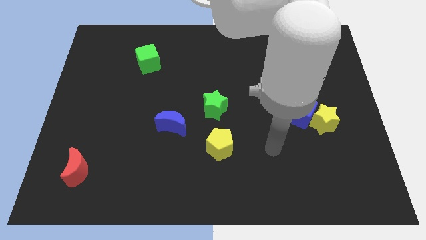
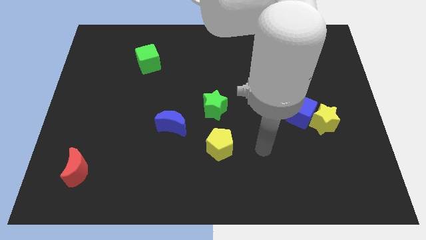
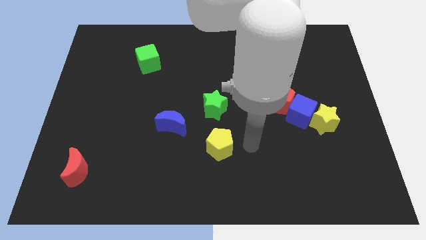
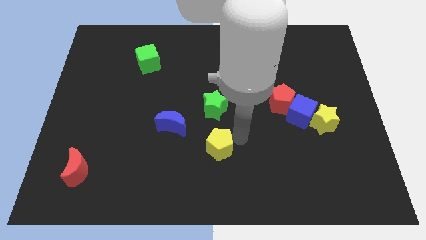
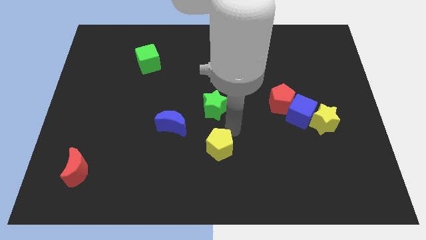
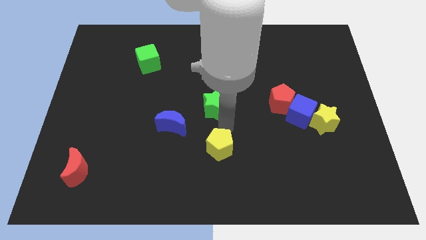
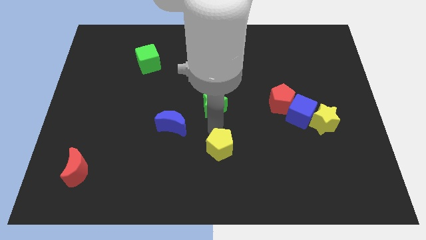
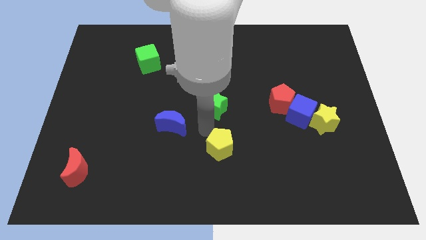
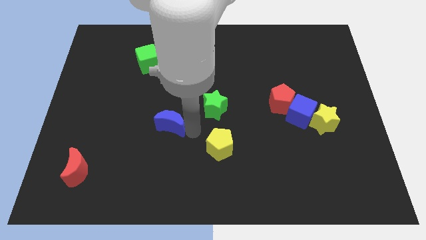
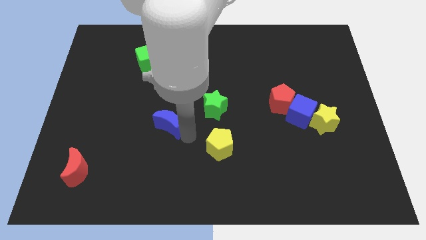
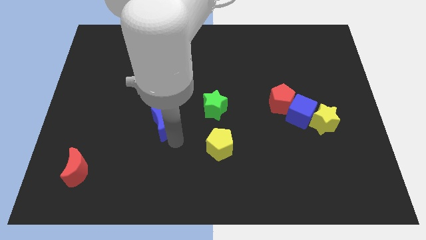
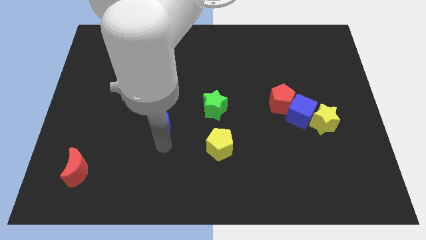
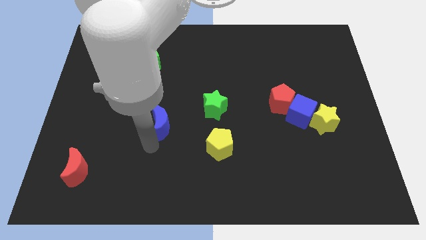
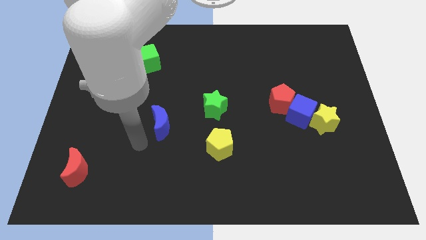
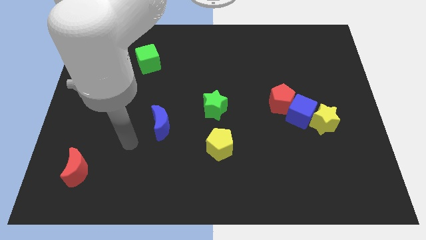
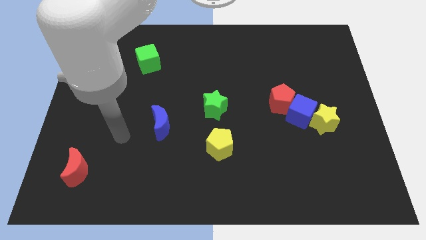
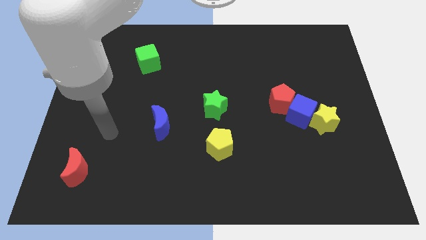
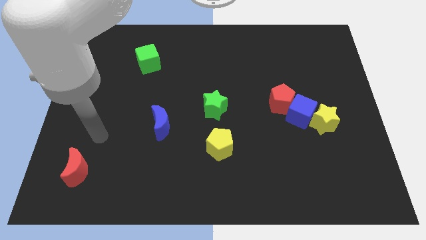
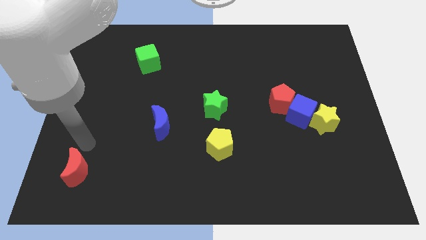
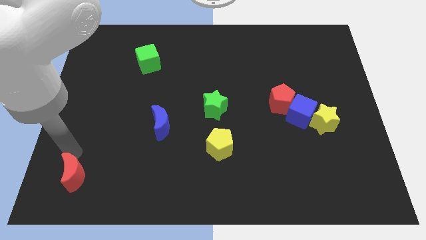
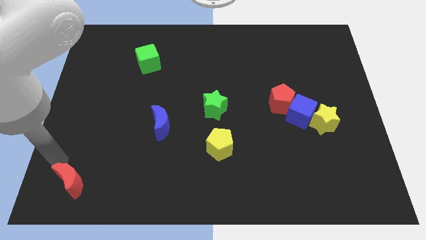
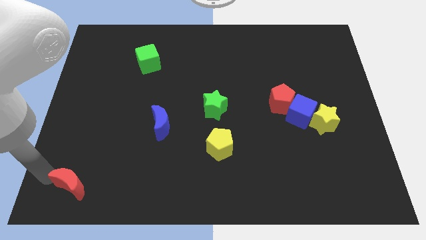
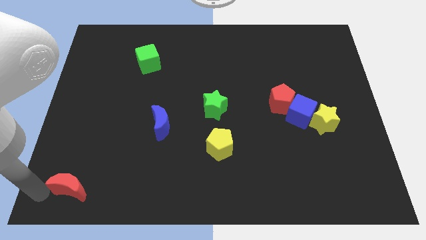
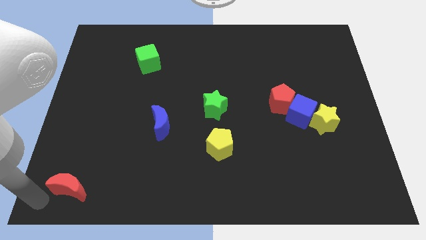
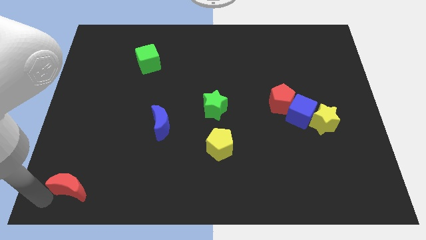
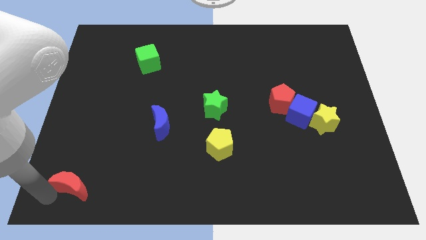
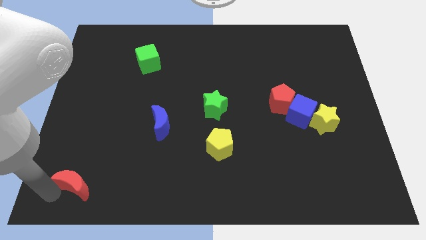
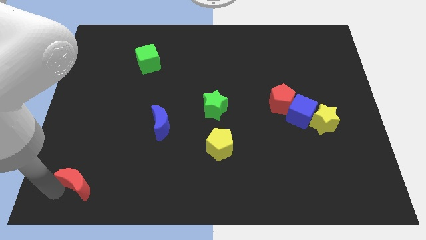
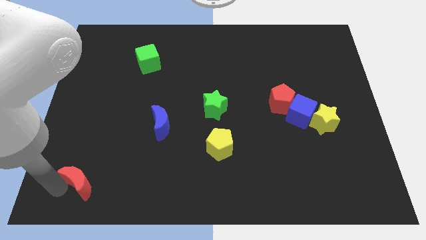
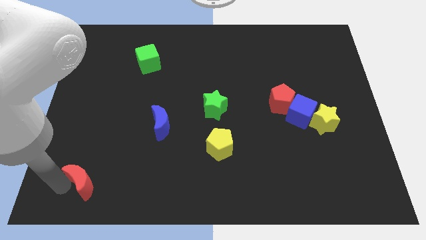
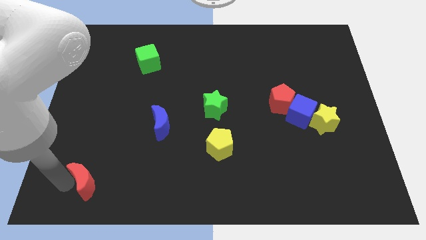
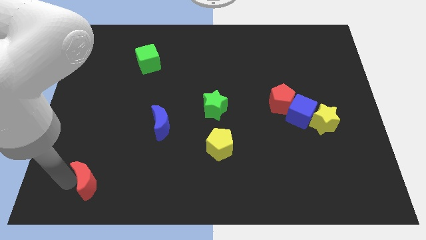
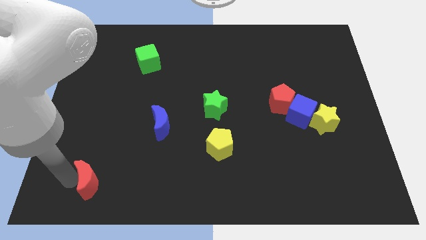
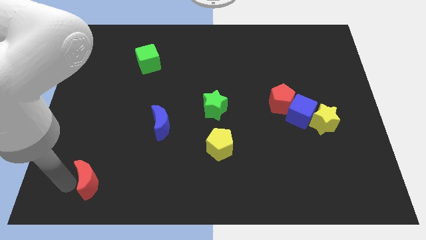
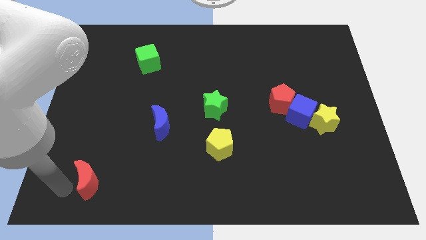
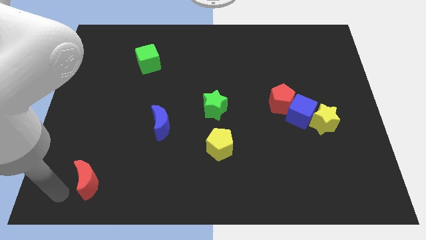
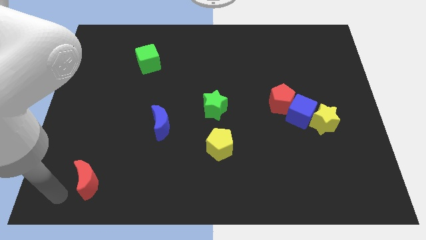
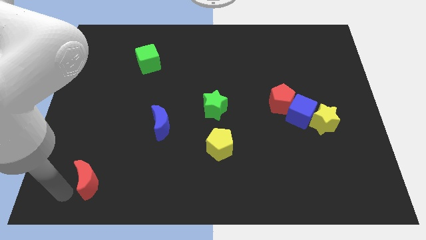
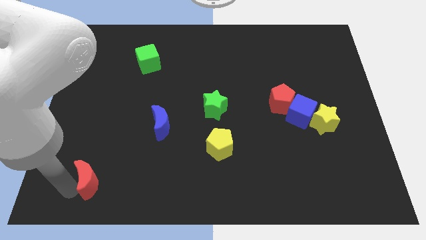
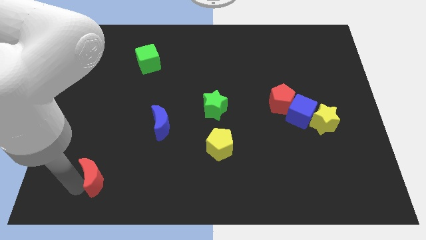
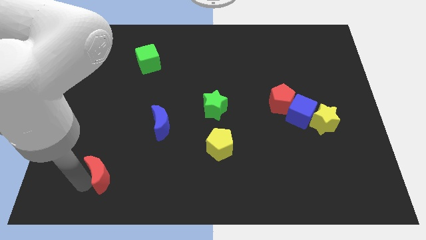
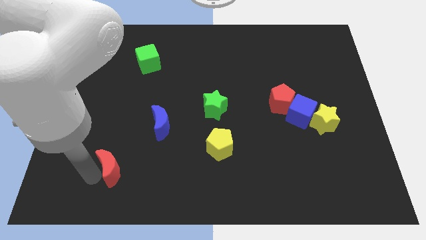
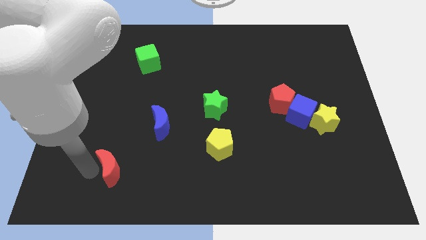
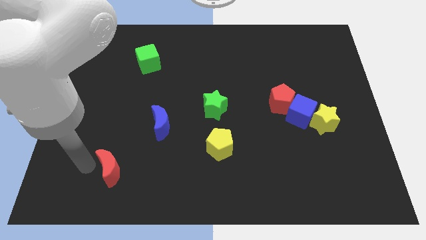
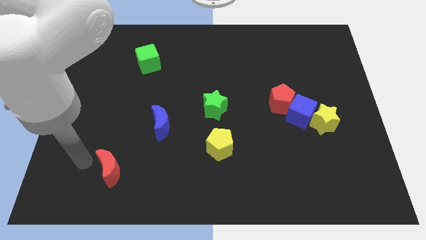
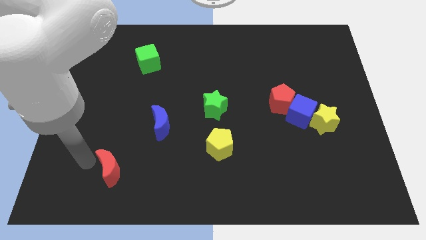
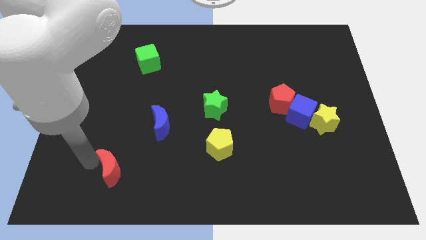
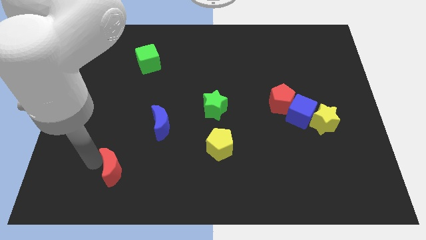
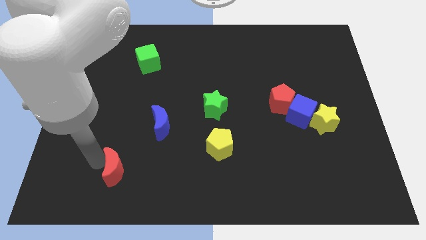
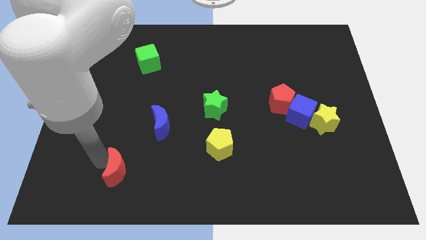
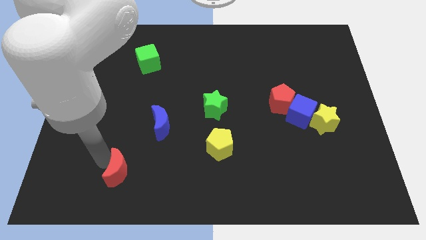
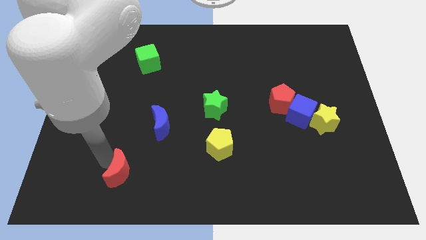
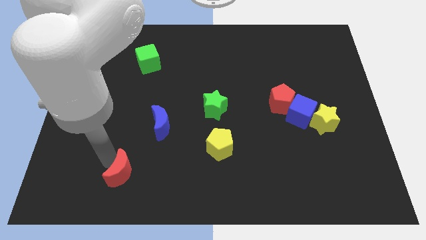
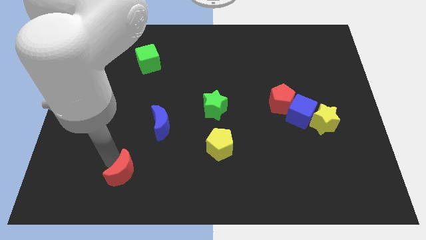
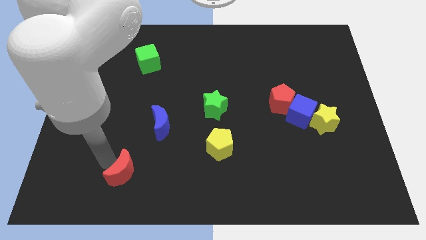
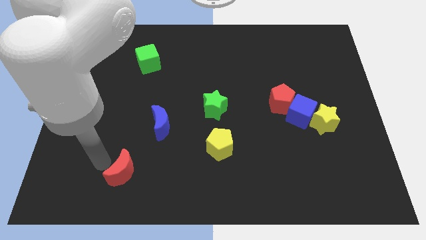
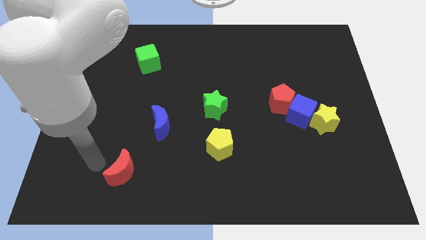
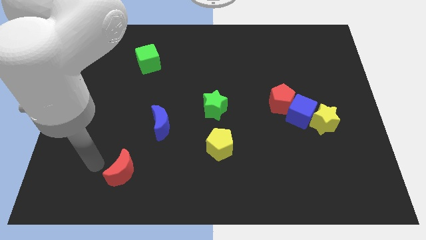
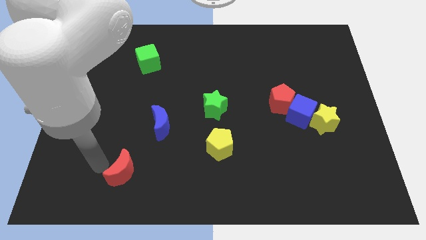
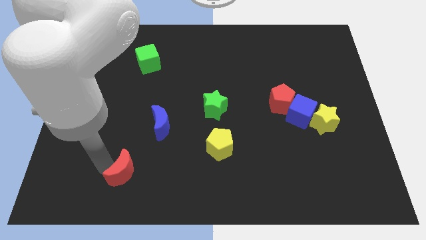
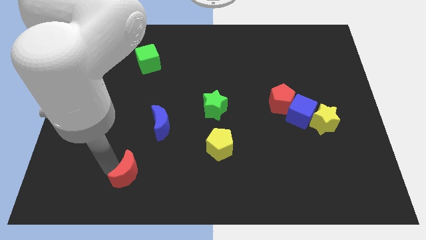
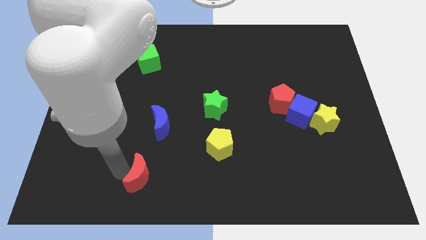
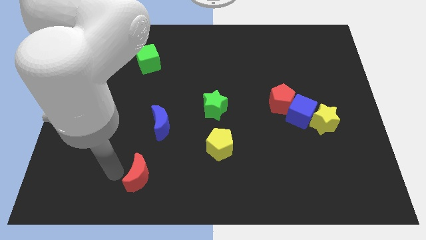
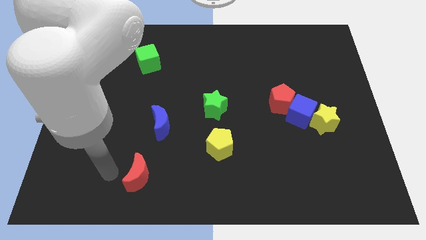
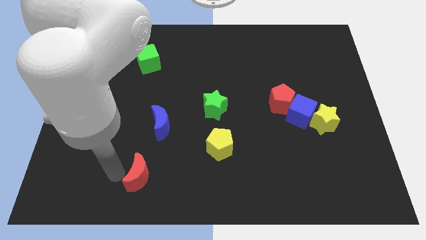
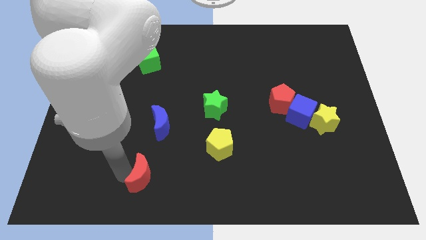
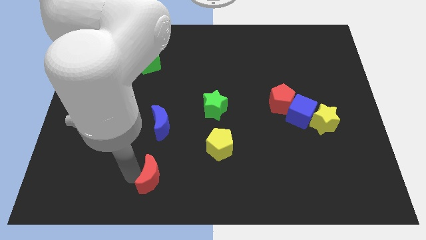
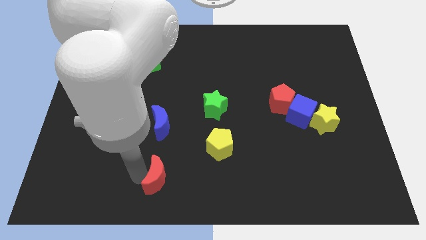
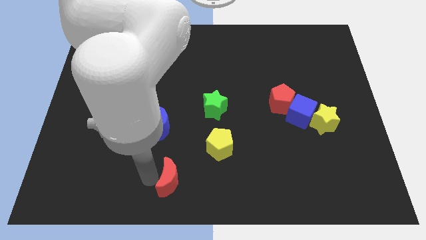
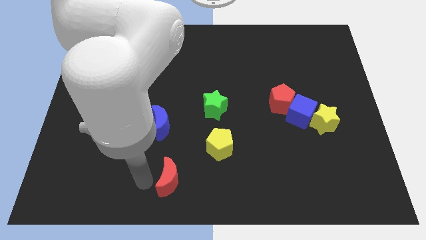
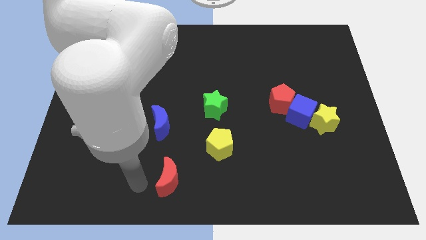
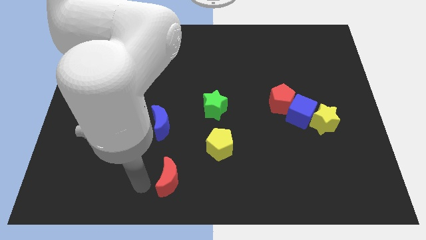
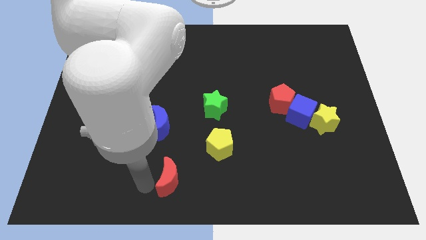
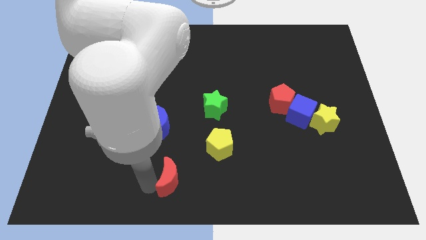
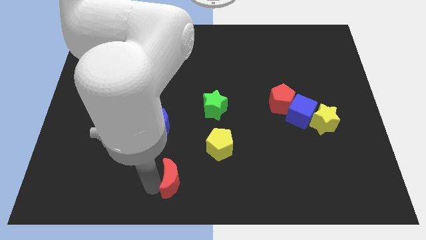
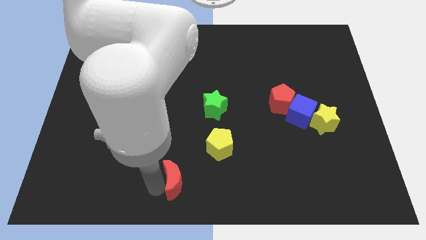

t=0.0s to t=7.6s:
slide the red moon right

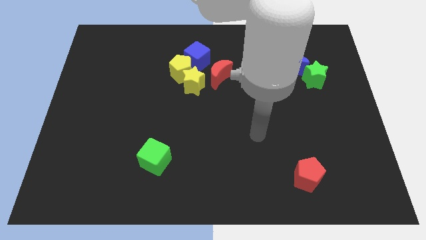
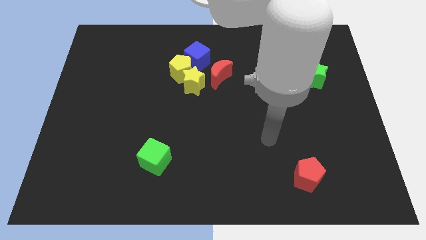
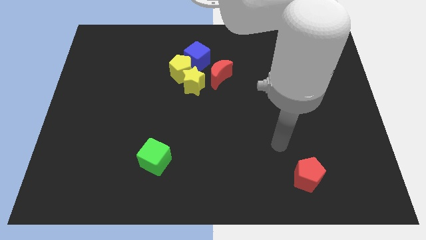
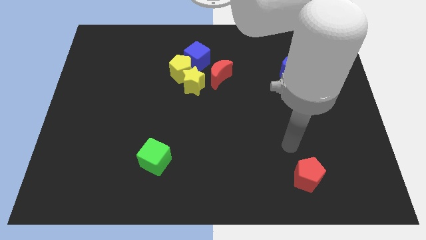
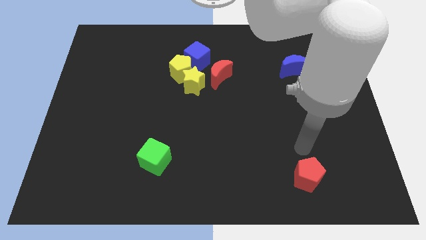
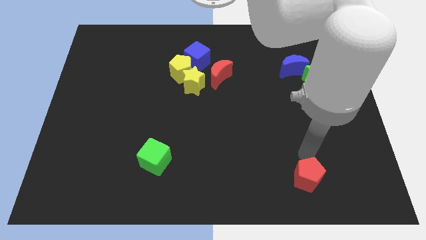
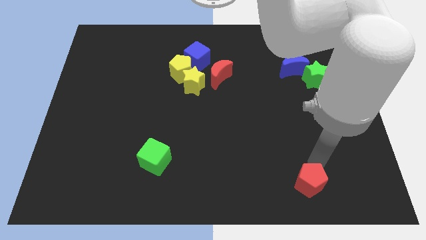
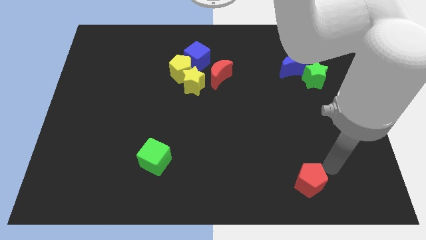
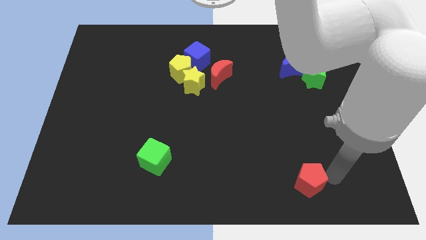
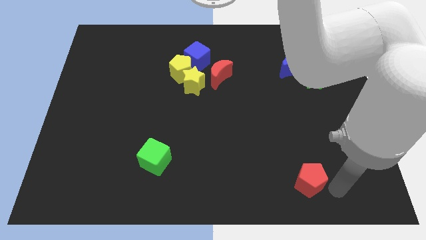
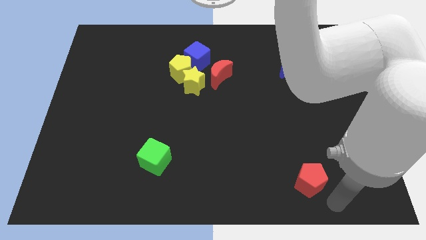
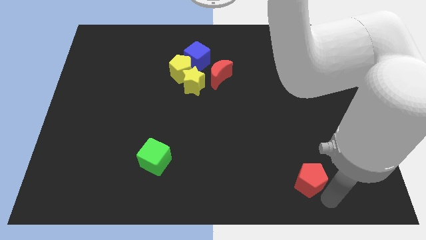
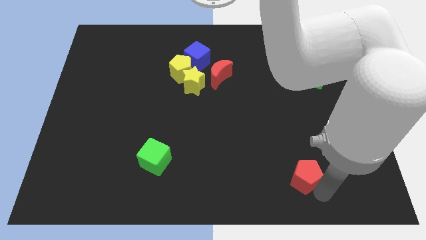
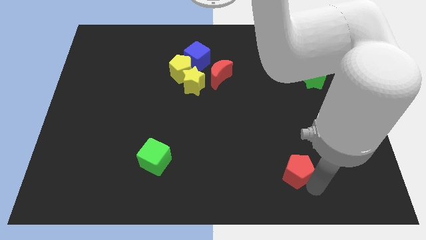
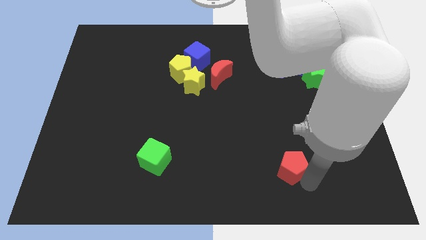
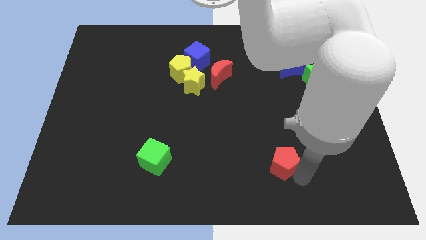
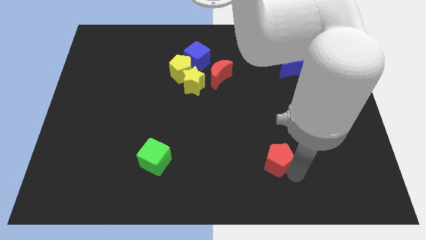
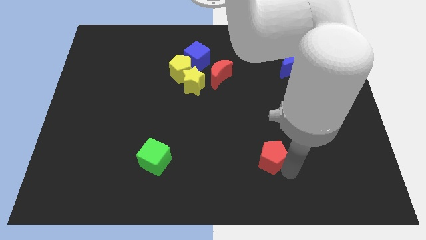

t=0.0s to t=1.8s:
slightly slide the red pentagon upwards and then to the left
